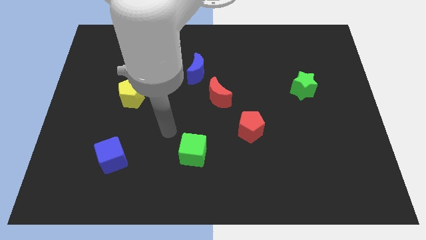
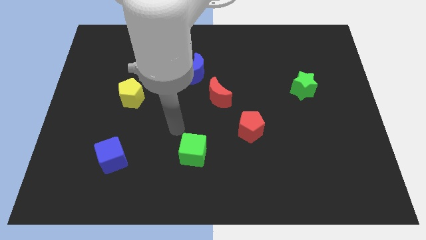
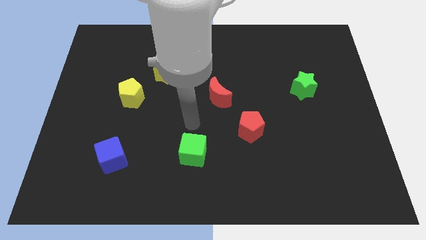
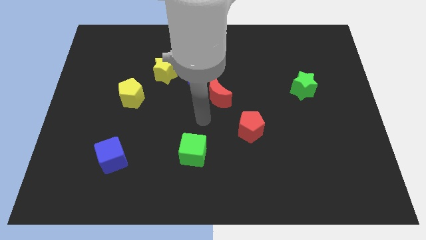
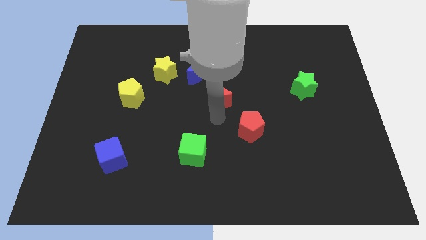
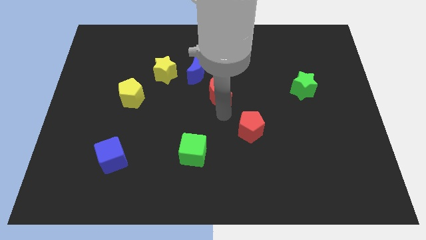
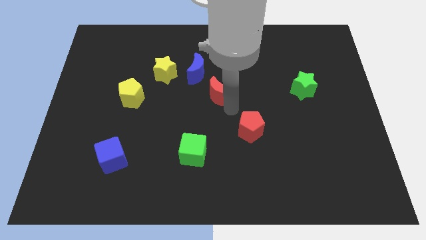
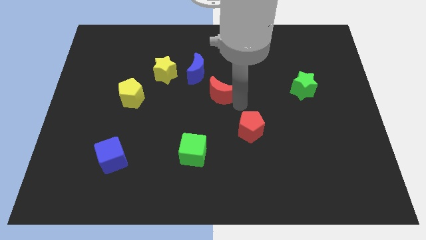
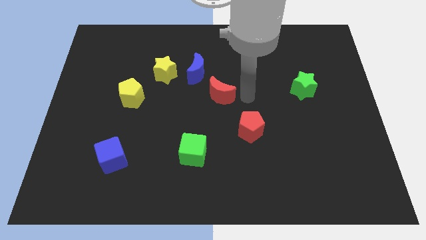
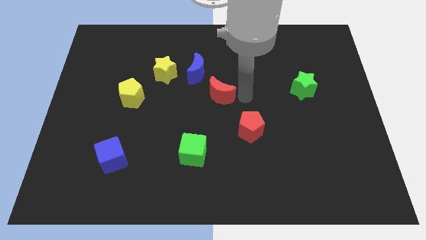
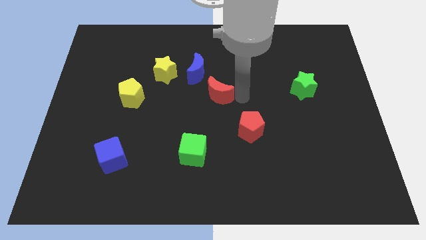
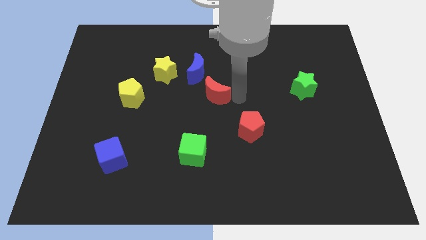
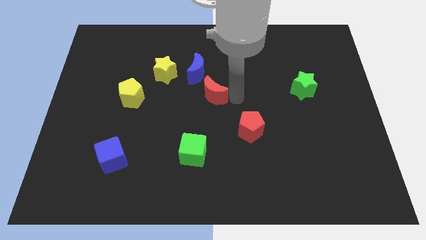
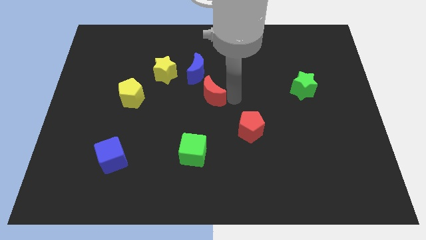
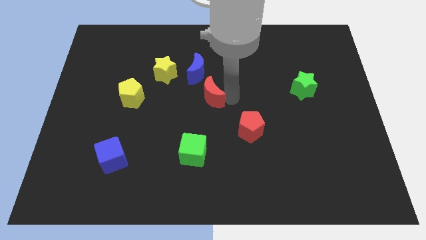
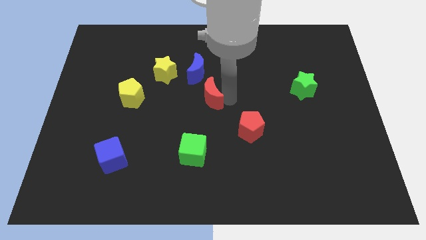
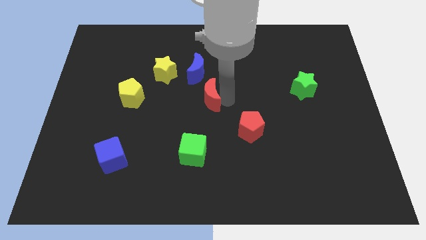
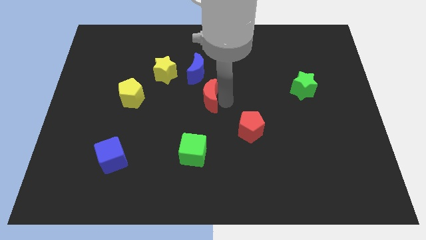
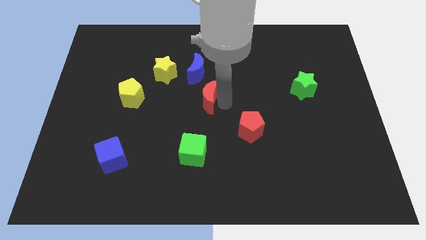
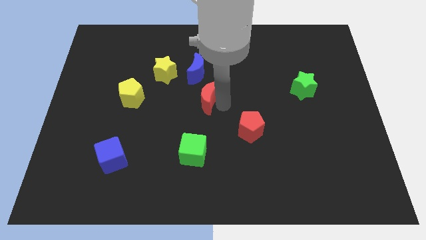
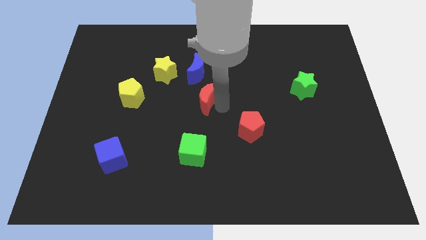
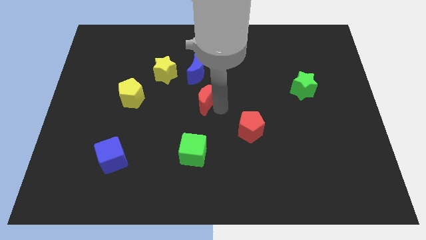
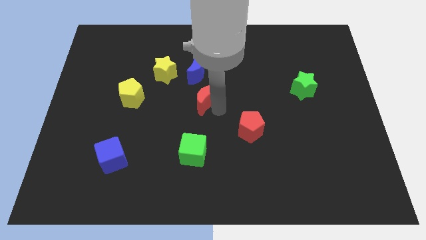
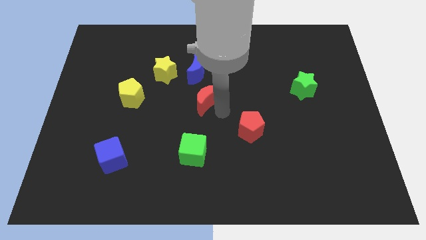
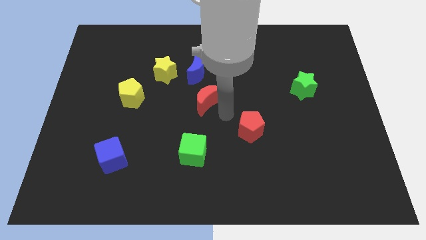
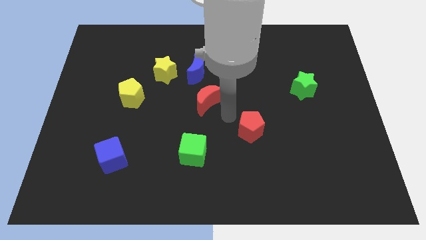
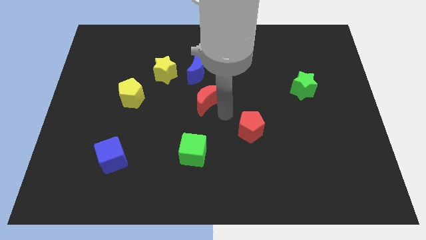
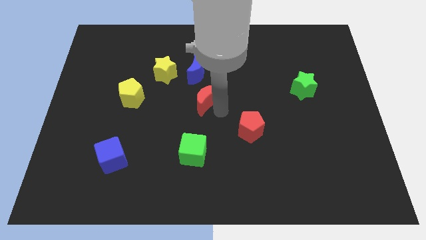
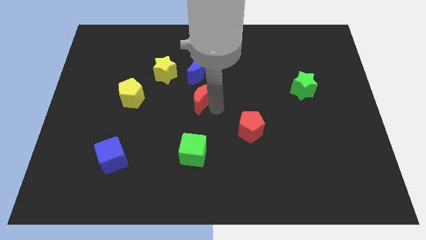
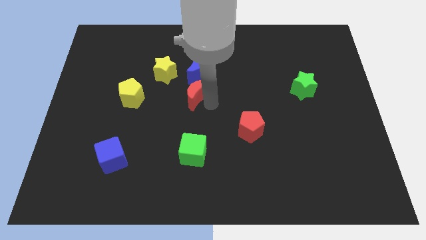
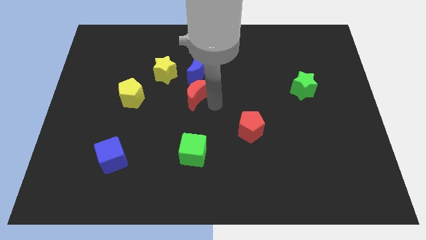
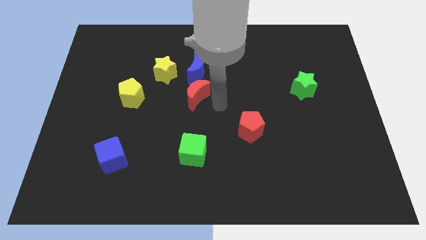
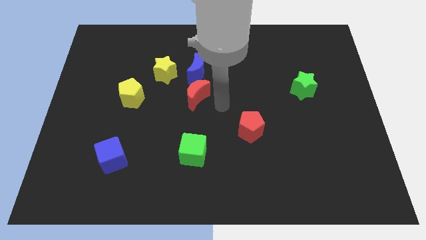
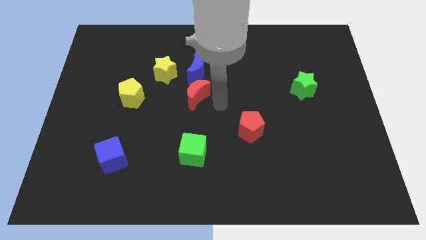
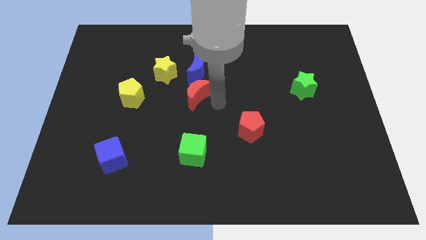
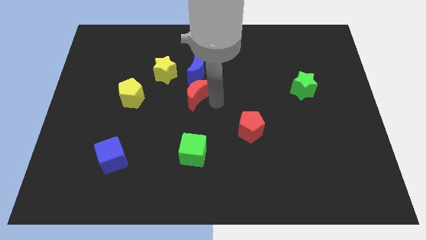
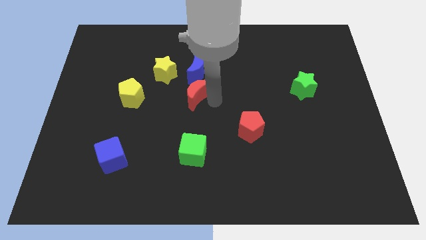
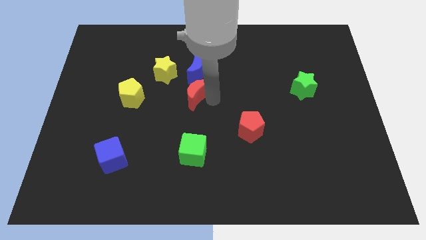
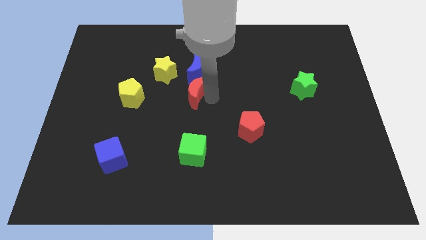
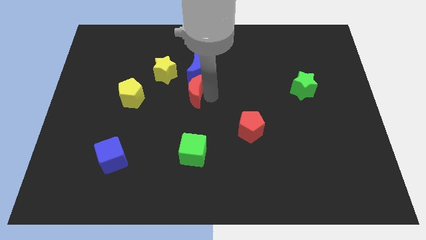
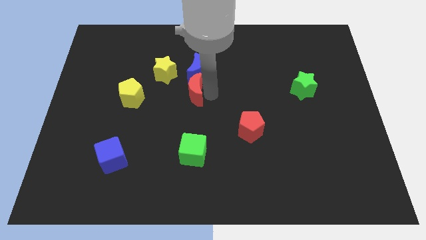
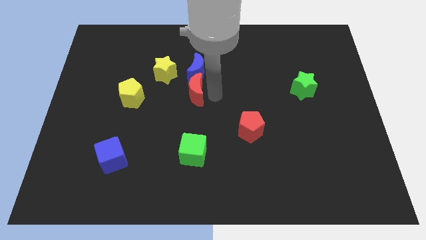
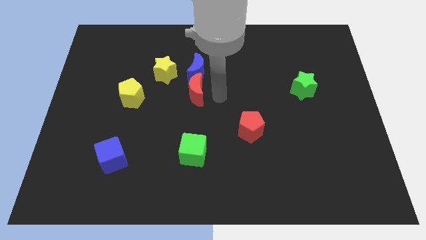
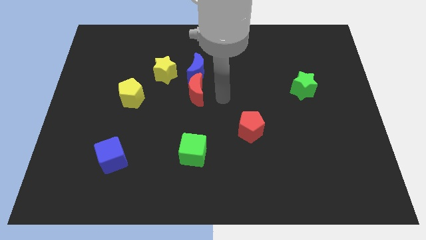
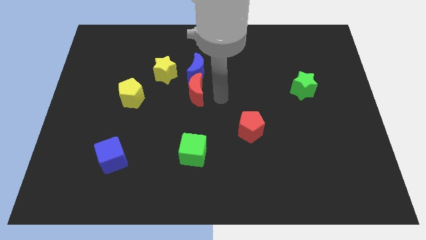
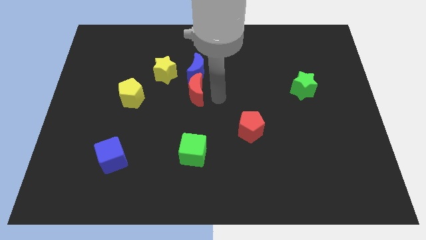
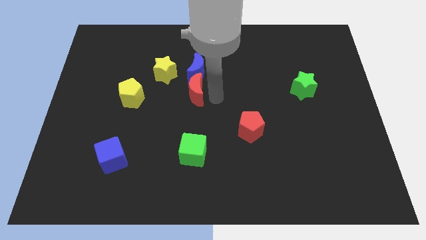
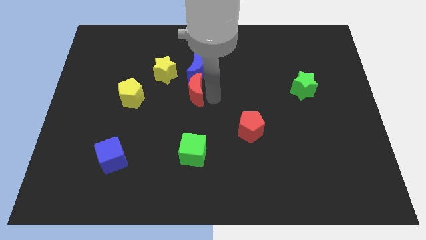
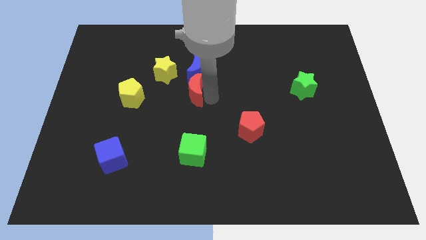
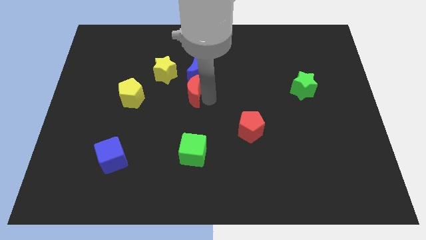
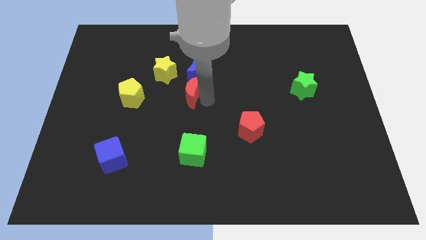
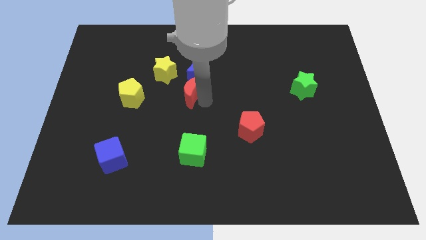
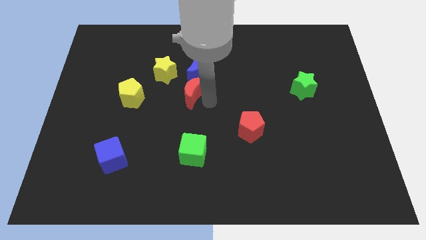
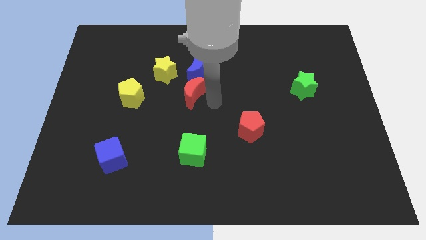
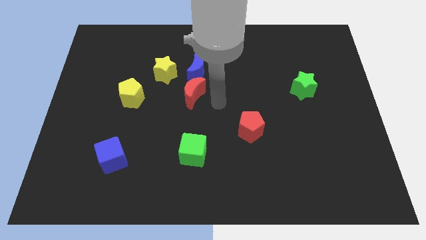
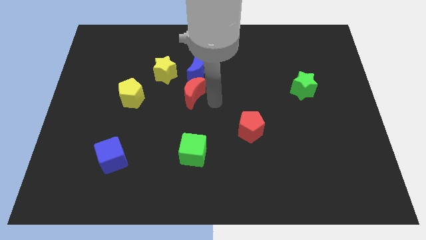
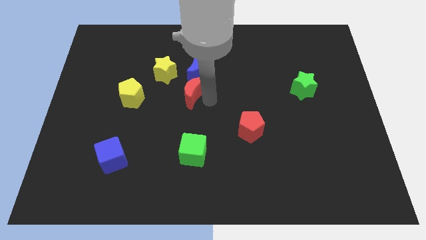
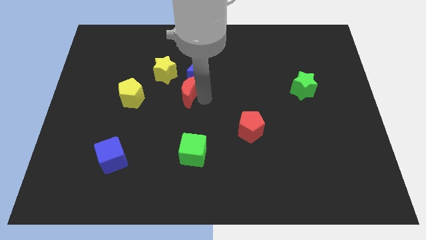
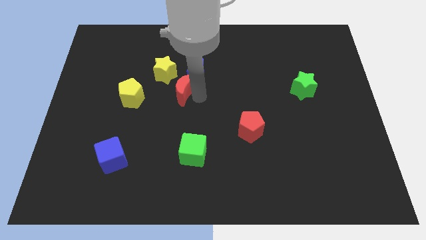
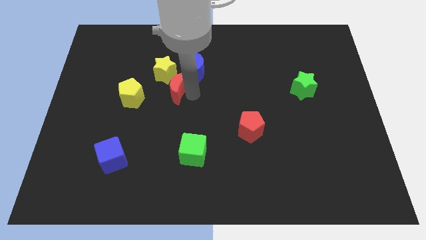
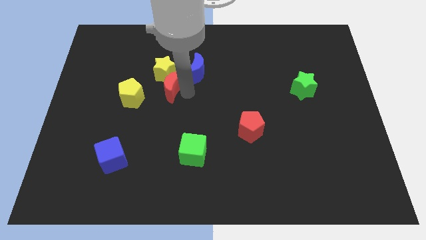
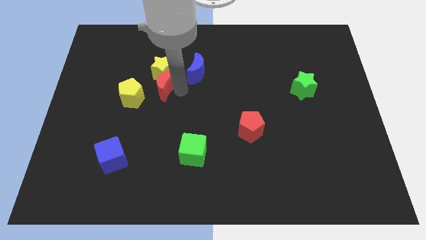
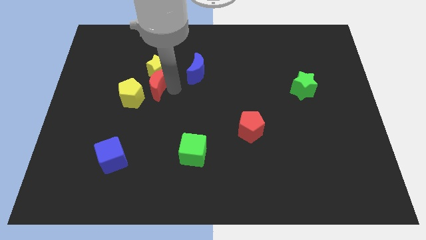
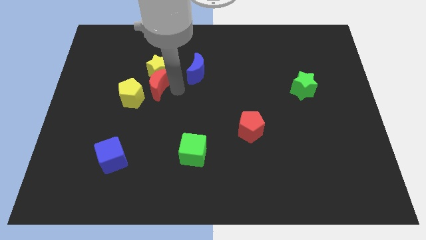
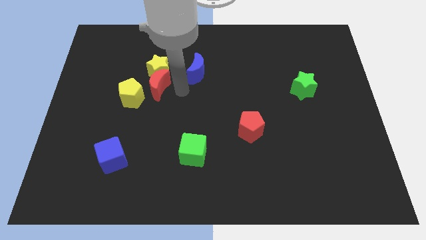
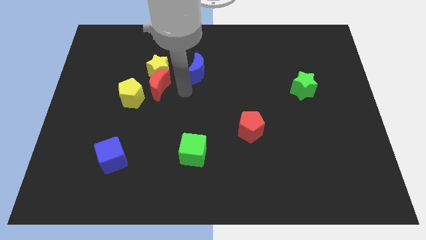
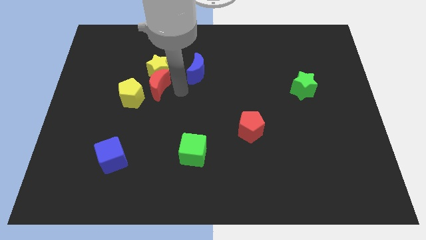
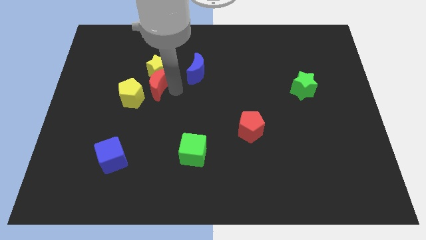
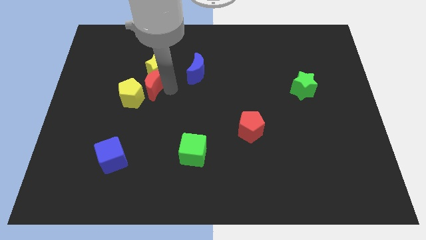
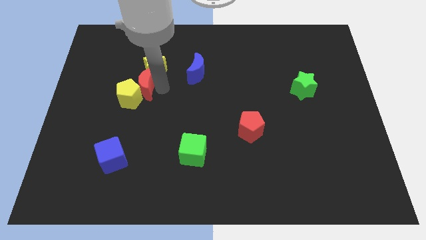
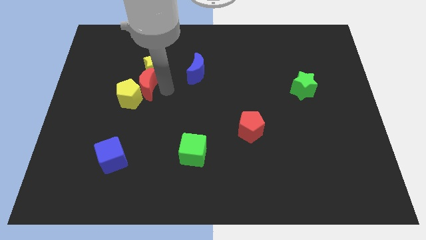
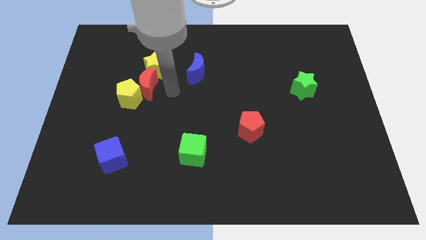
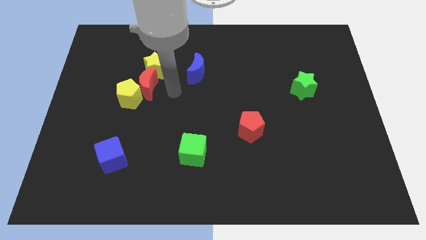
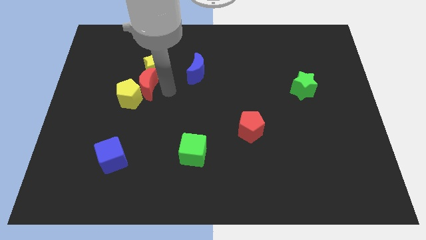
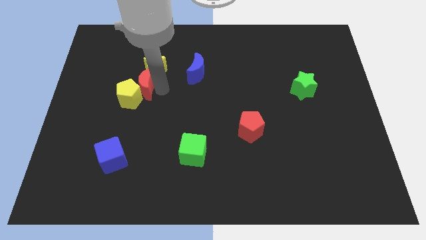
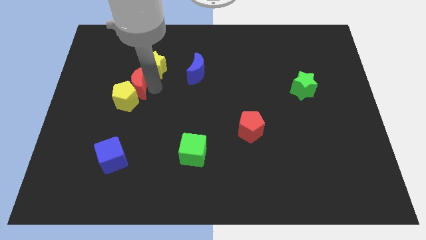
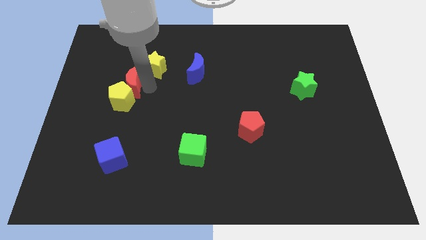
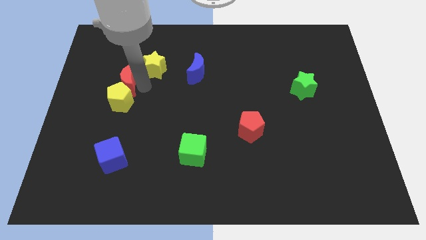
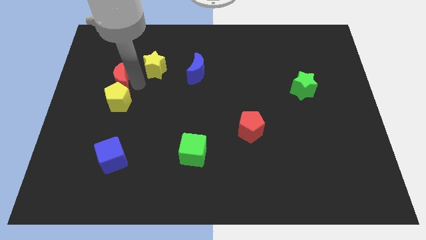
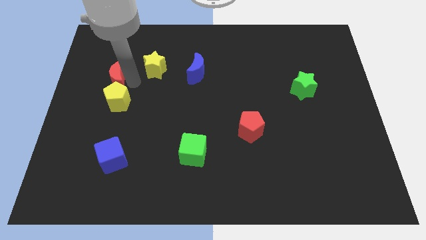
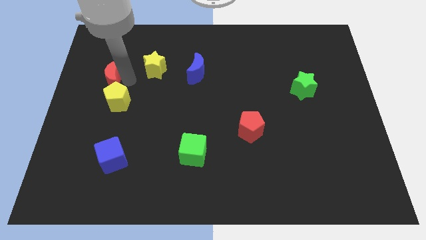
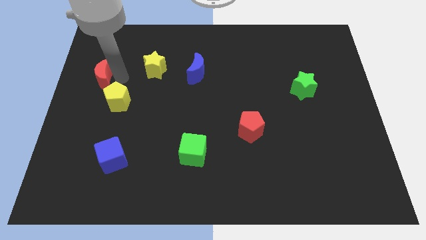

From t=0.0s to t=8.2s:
slide the red moon to the center left
